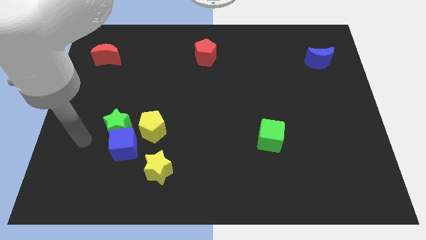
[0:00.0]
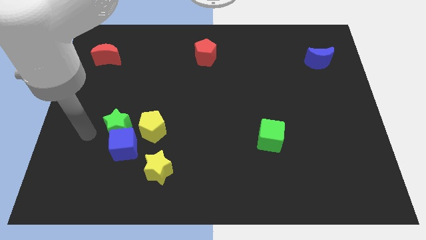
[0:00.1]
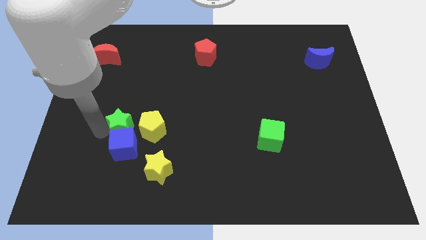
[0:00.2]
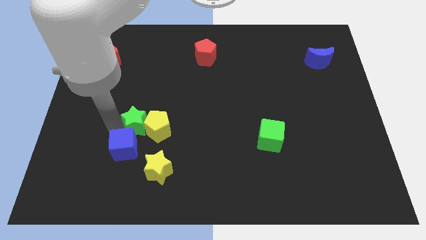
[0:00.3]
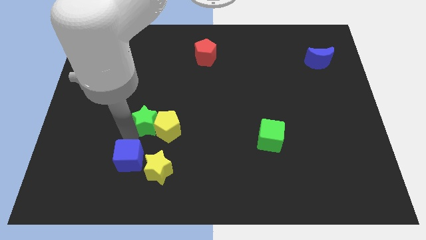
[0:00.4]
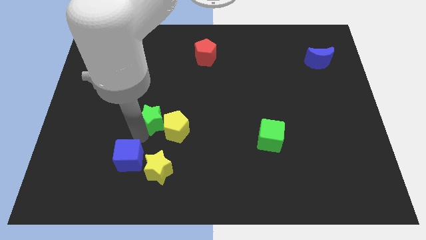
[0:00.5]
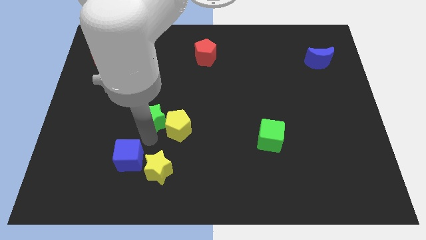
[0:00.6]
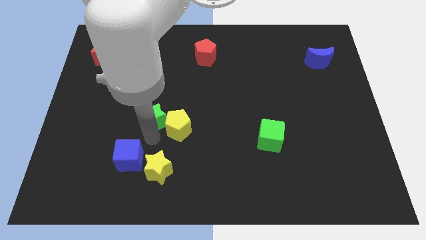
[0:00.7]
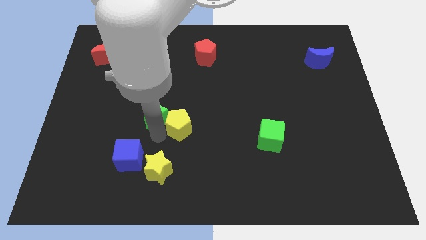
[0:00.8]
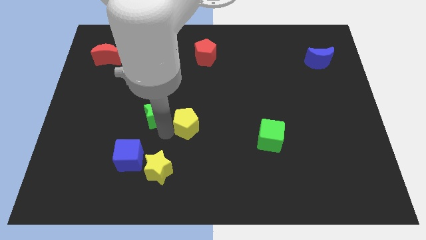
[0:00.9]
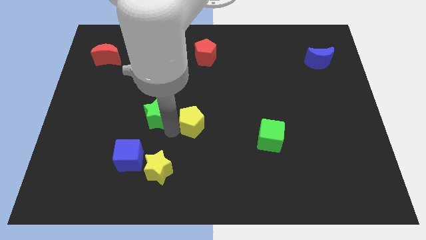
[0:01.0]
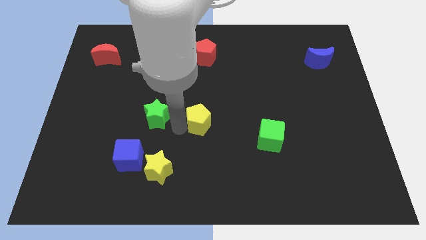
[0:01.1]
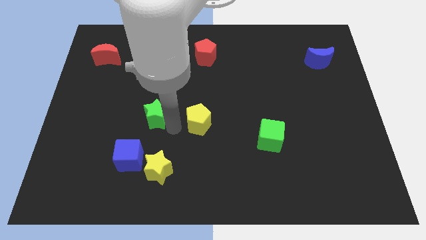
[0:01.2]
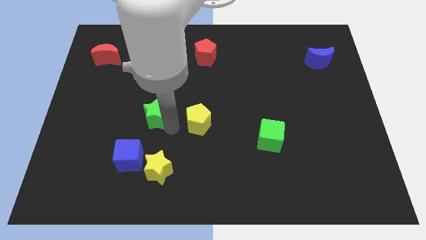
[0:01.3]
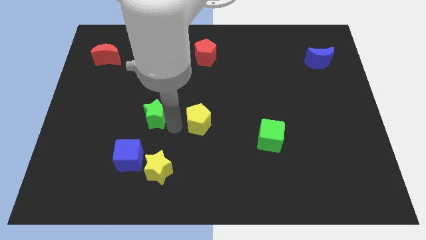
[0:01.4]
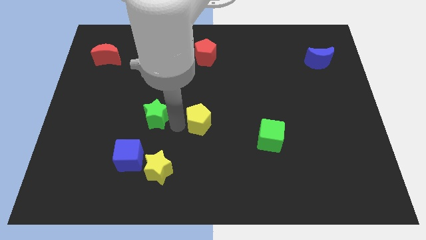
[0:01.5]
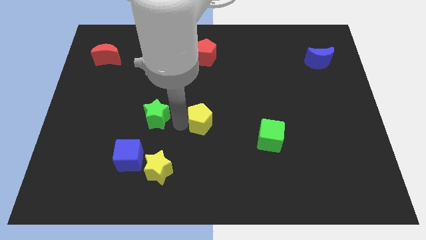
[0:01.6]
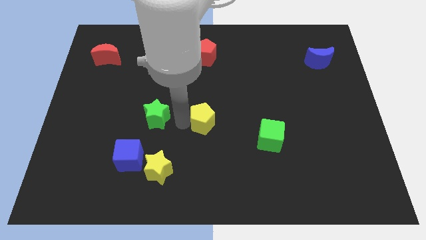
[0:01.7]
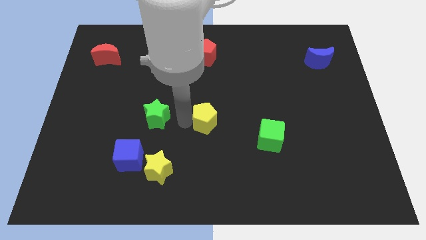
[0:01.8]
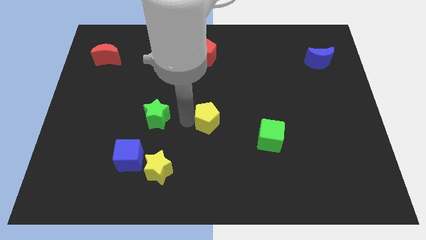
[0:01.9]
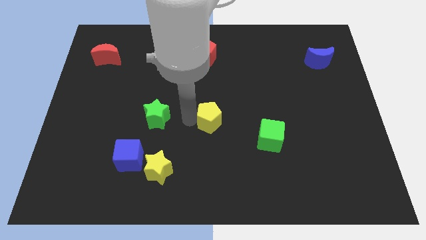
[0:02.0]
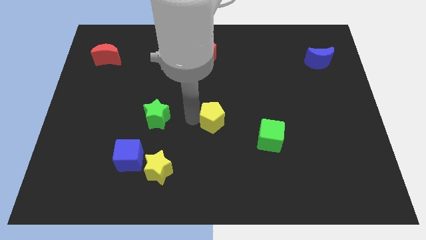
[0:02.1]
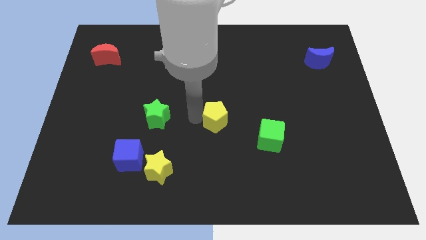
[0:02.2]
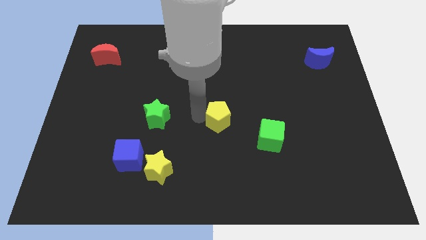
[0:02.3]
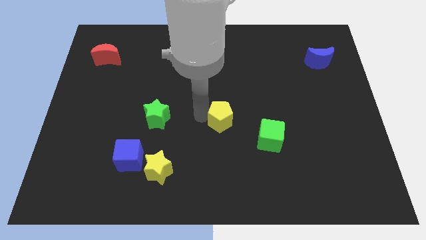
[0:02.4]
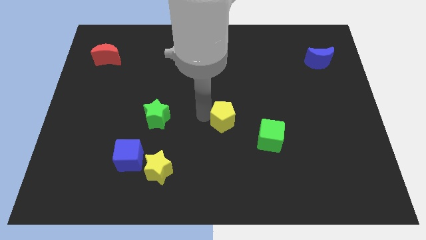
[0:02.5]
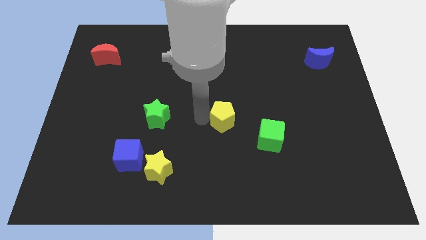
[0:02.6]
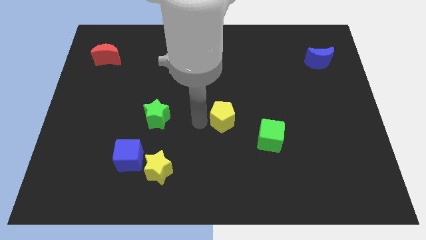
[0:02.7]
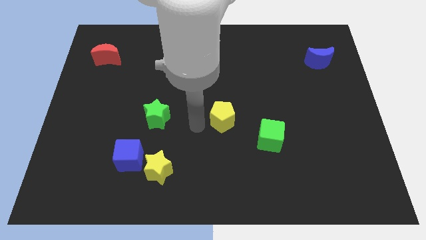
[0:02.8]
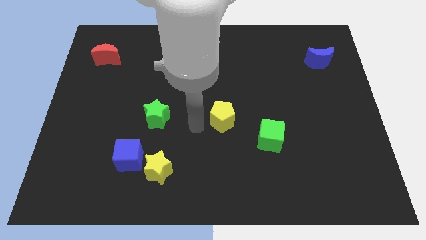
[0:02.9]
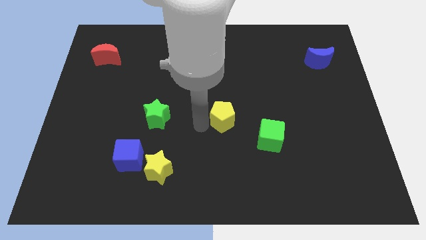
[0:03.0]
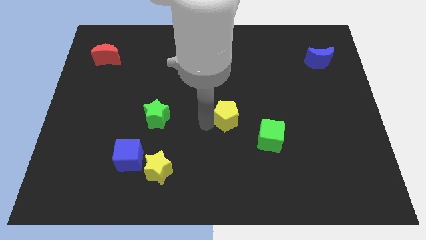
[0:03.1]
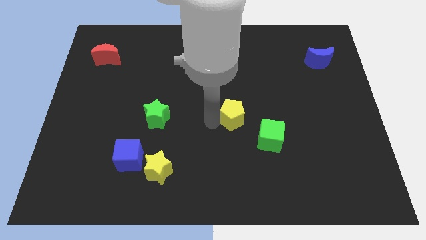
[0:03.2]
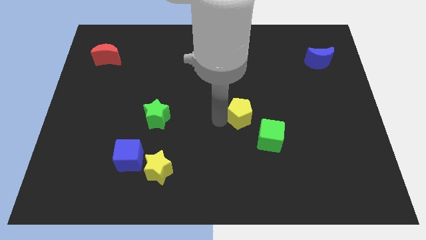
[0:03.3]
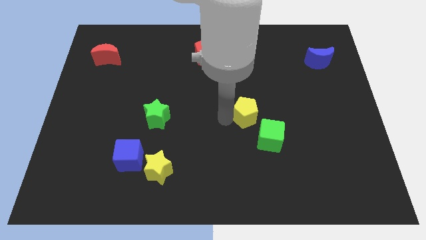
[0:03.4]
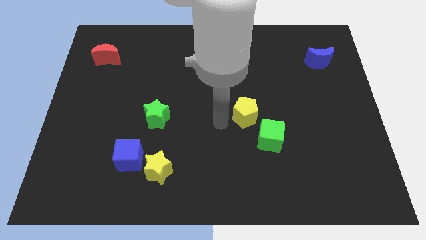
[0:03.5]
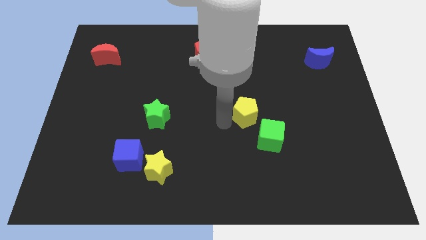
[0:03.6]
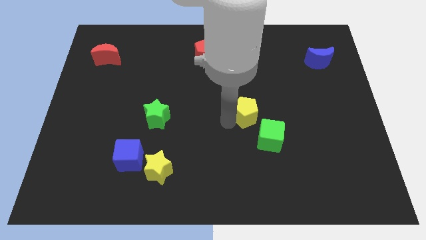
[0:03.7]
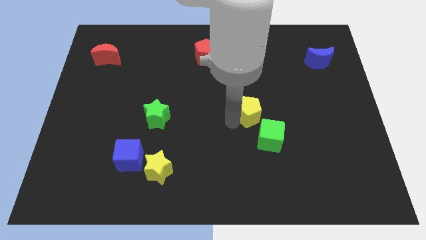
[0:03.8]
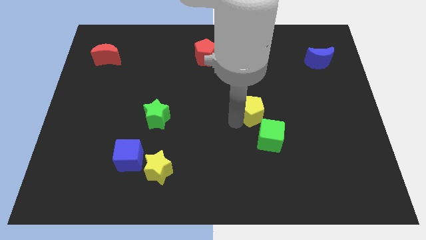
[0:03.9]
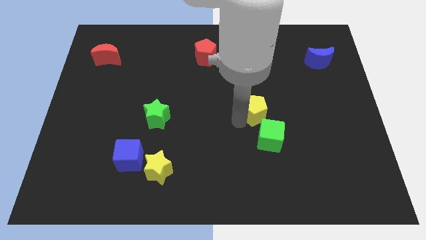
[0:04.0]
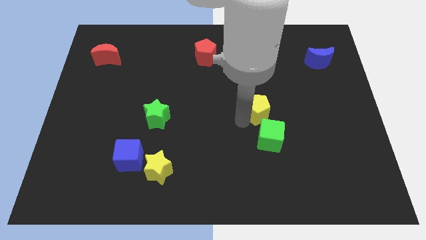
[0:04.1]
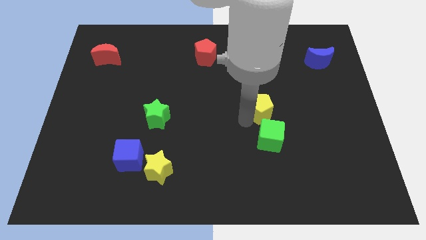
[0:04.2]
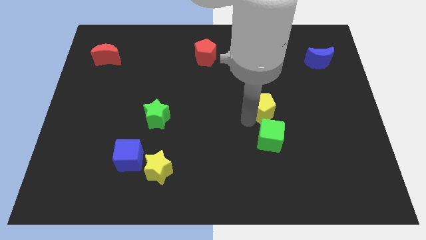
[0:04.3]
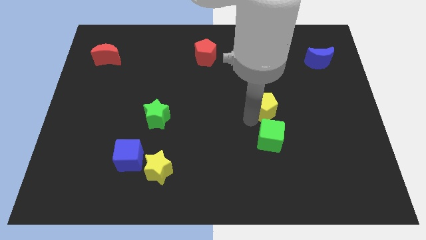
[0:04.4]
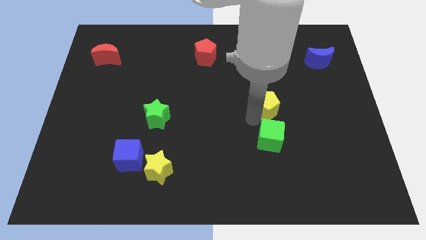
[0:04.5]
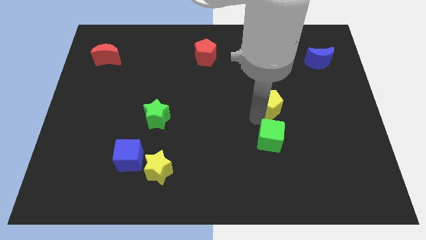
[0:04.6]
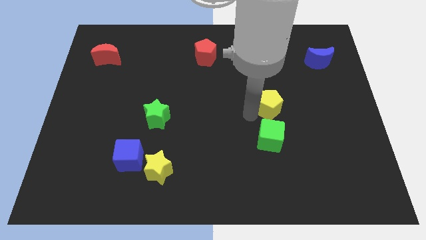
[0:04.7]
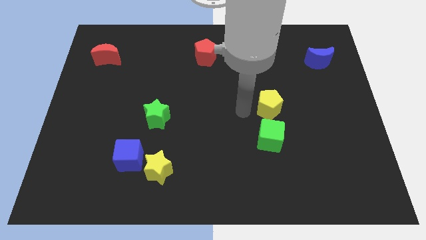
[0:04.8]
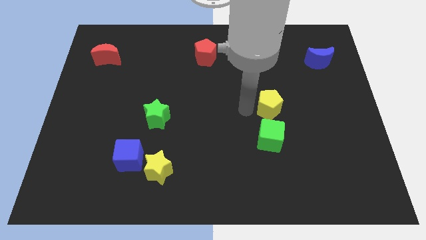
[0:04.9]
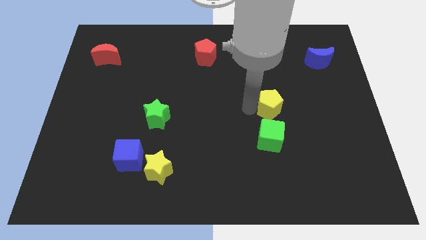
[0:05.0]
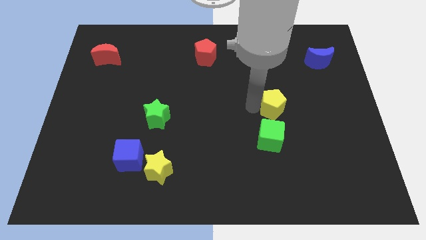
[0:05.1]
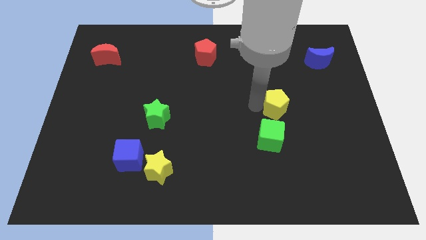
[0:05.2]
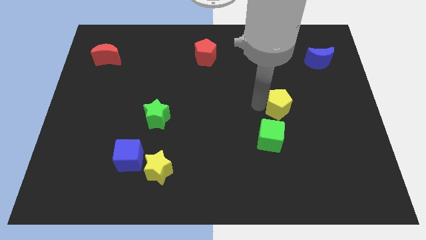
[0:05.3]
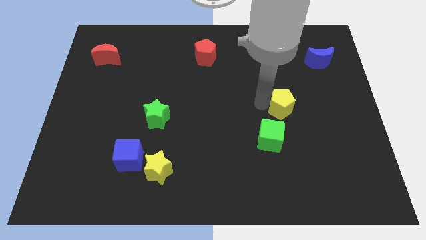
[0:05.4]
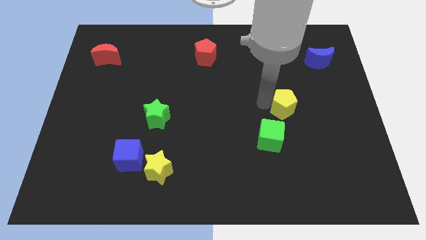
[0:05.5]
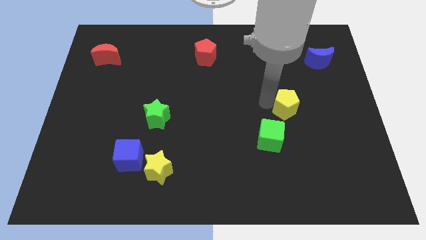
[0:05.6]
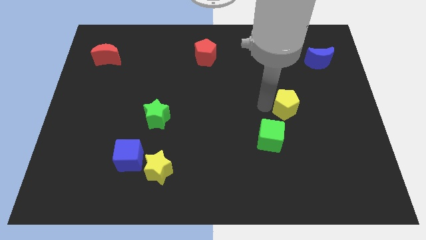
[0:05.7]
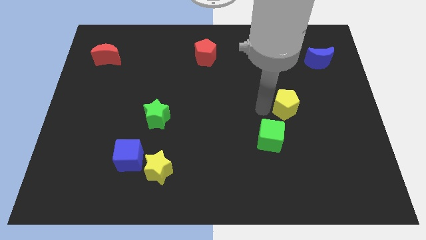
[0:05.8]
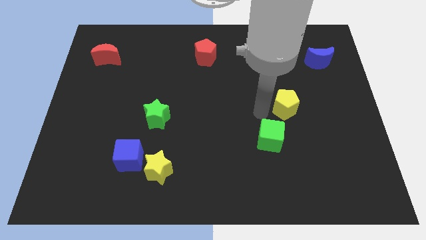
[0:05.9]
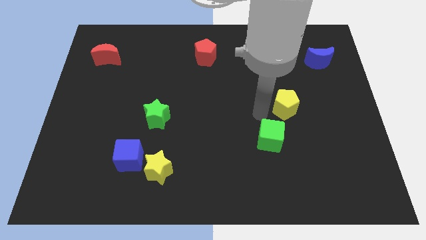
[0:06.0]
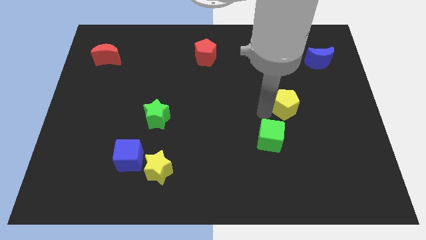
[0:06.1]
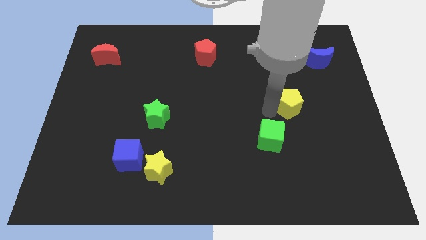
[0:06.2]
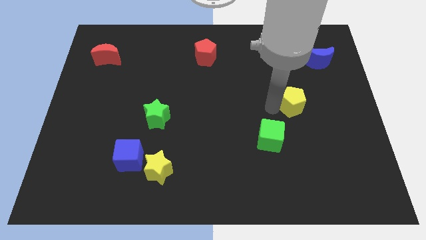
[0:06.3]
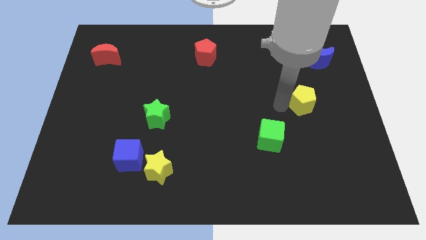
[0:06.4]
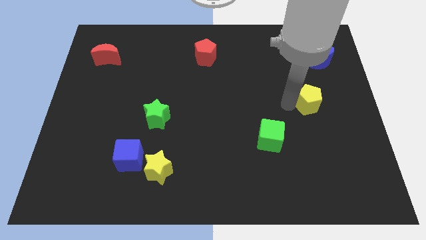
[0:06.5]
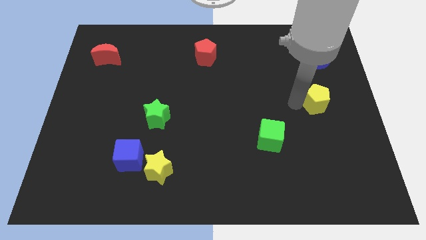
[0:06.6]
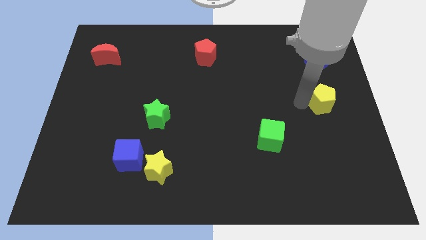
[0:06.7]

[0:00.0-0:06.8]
slide the yellow pentagon to the center right
